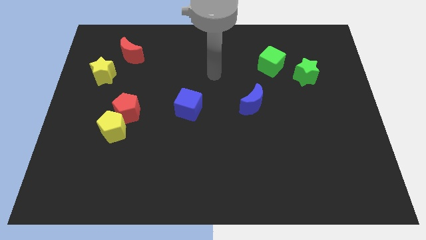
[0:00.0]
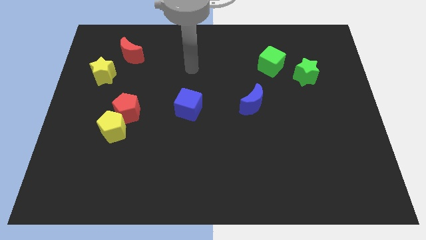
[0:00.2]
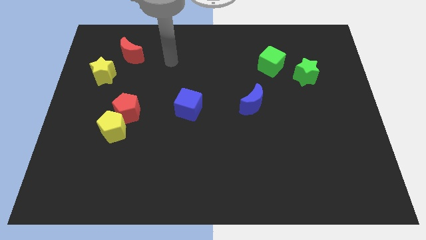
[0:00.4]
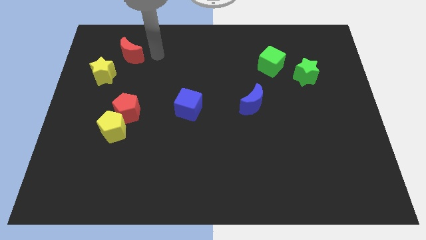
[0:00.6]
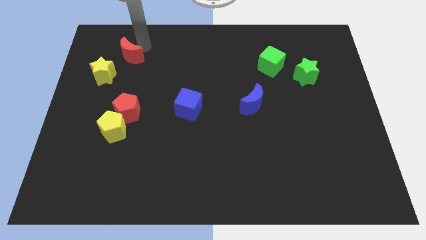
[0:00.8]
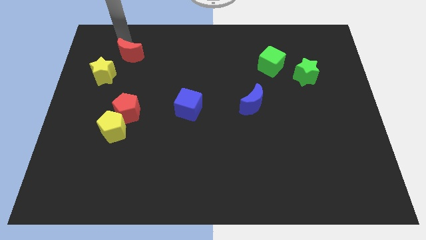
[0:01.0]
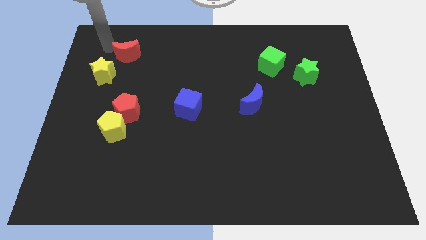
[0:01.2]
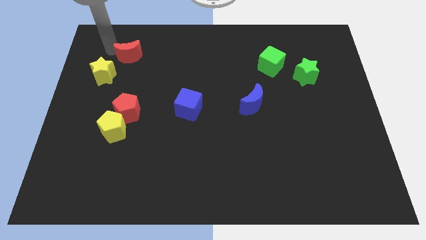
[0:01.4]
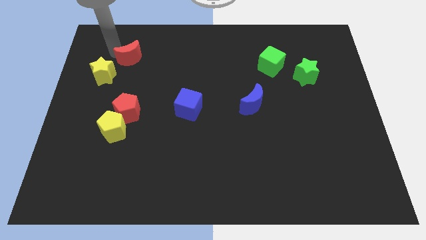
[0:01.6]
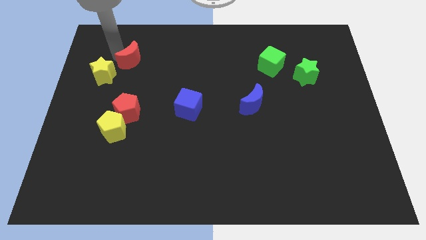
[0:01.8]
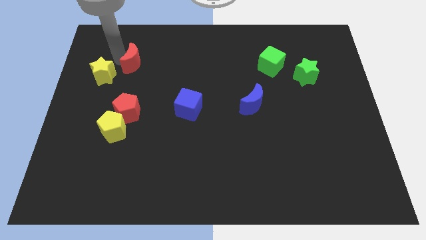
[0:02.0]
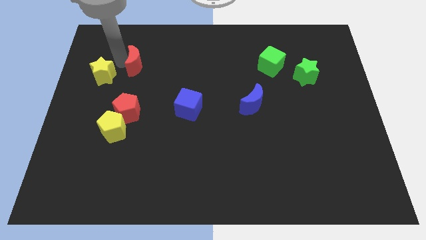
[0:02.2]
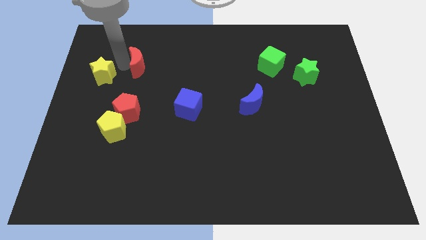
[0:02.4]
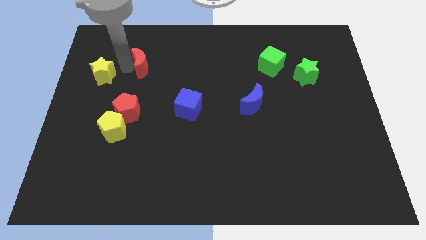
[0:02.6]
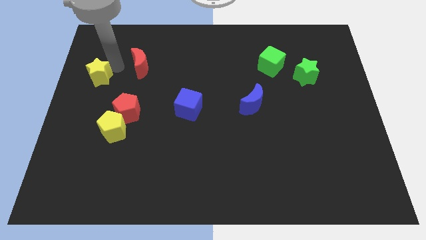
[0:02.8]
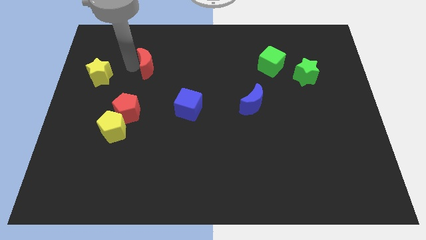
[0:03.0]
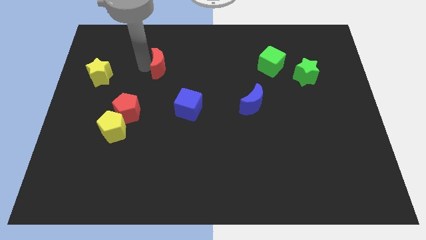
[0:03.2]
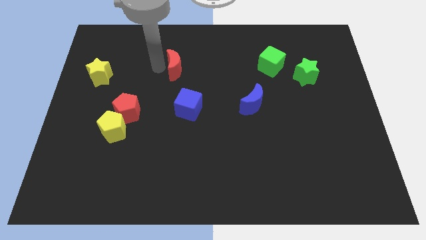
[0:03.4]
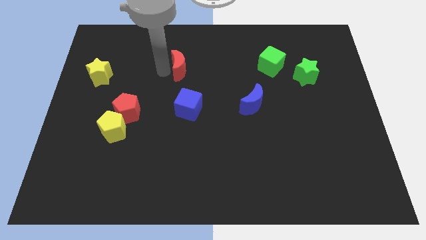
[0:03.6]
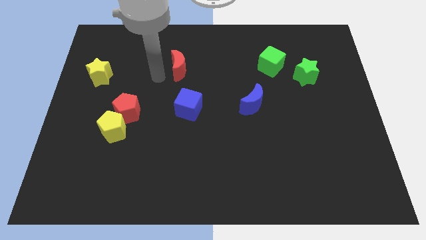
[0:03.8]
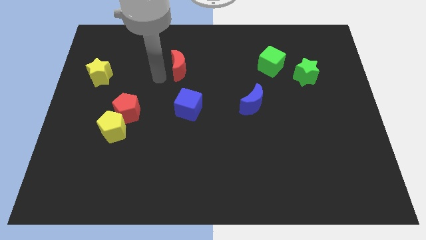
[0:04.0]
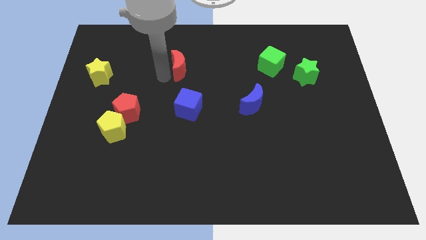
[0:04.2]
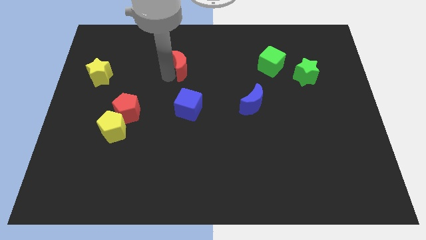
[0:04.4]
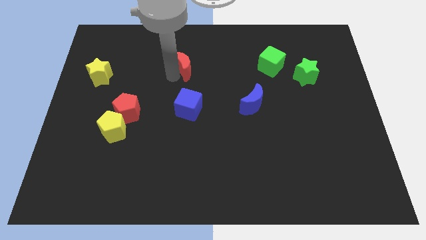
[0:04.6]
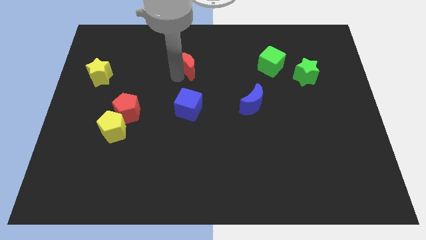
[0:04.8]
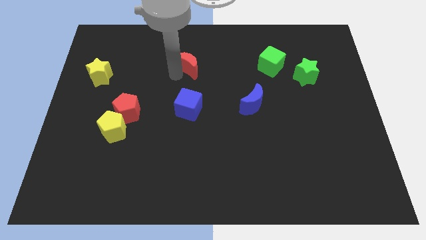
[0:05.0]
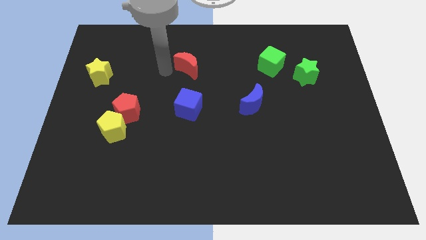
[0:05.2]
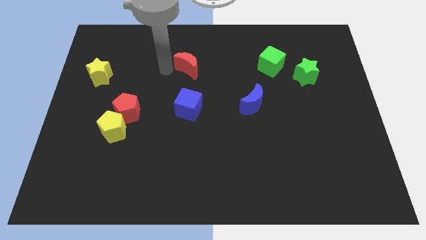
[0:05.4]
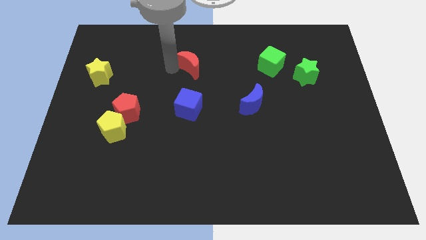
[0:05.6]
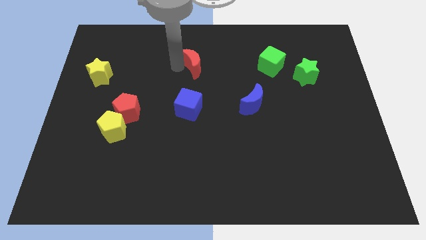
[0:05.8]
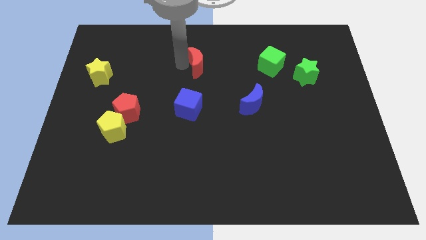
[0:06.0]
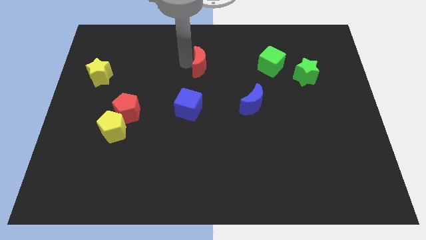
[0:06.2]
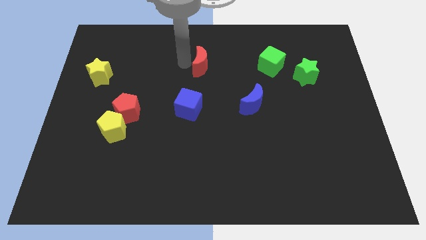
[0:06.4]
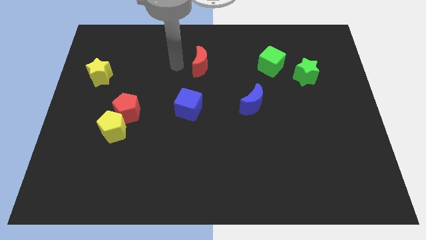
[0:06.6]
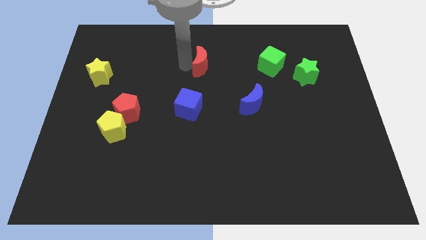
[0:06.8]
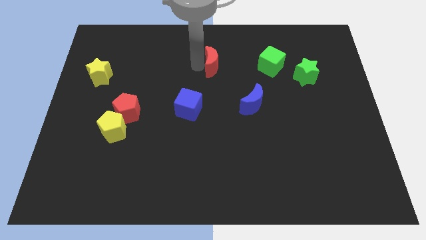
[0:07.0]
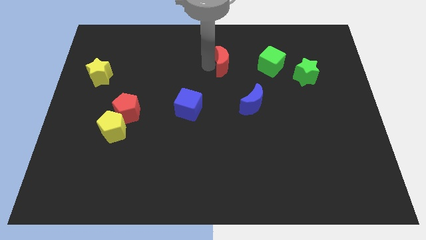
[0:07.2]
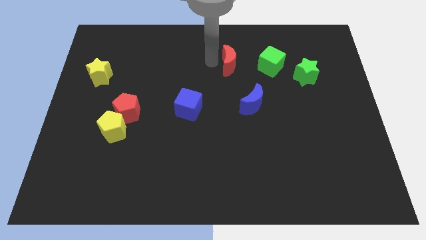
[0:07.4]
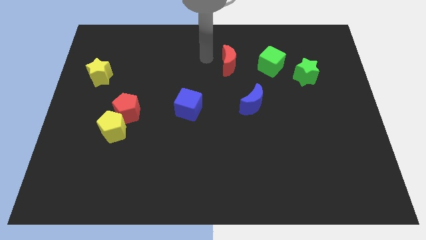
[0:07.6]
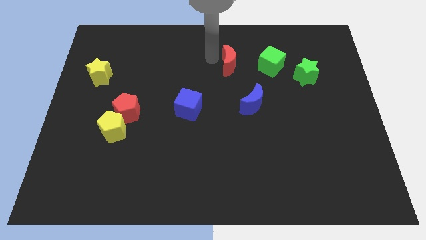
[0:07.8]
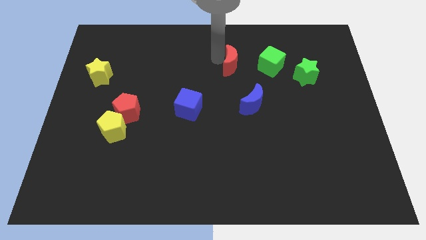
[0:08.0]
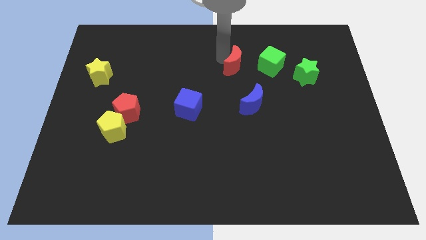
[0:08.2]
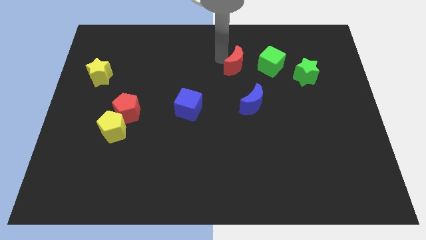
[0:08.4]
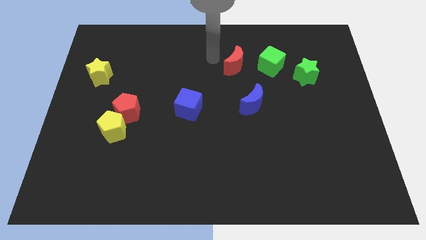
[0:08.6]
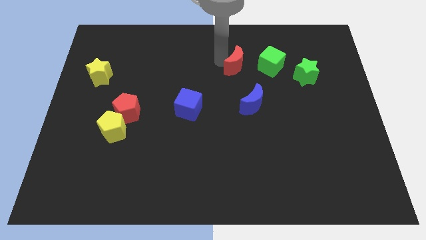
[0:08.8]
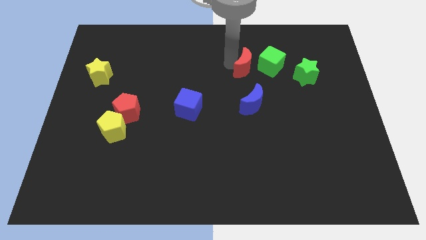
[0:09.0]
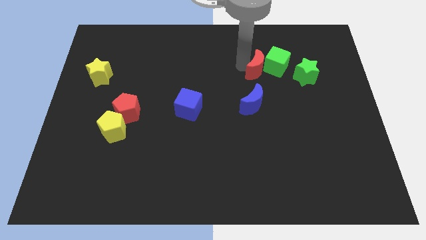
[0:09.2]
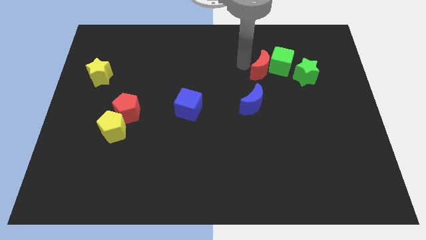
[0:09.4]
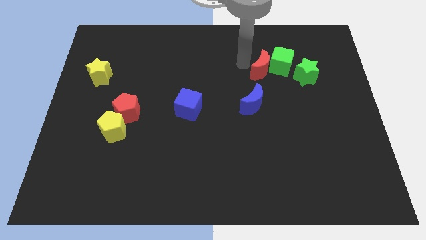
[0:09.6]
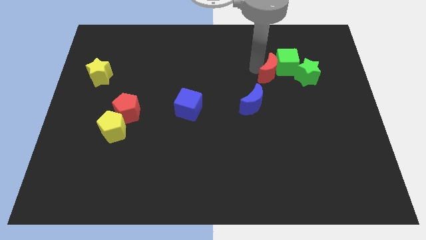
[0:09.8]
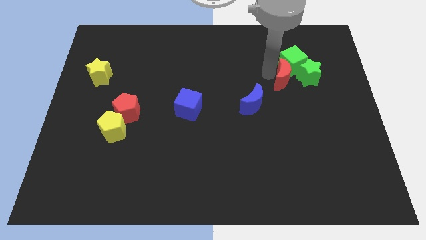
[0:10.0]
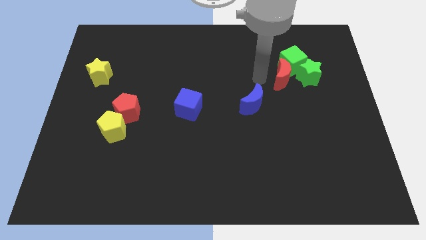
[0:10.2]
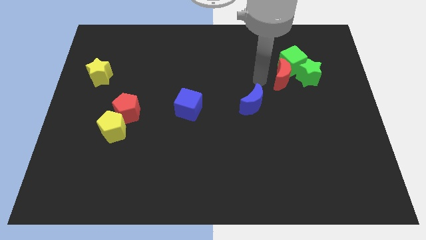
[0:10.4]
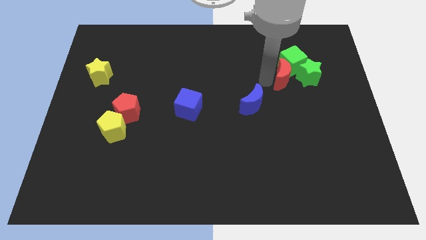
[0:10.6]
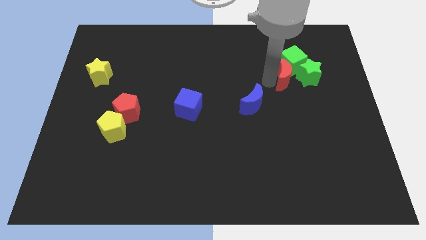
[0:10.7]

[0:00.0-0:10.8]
push the red moon to the green star

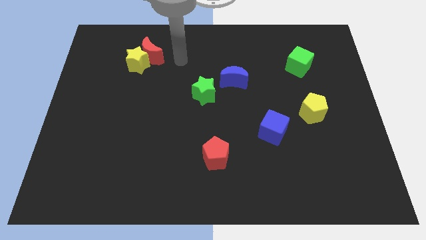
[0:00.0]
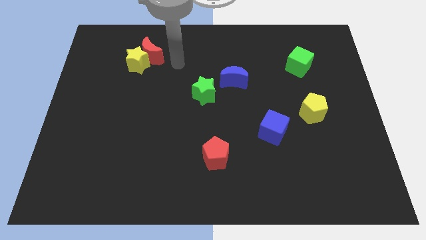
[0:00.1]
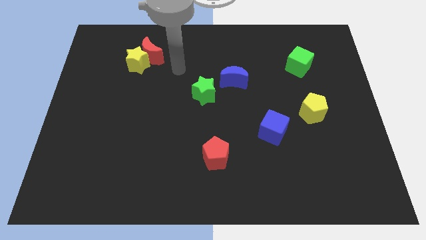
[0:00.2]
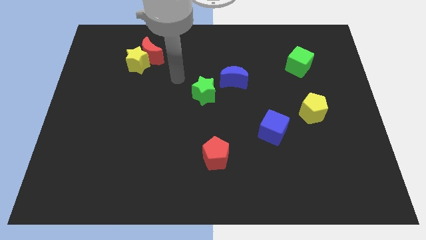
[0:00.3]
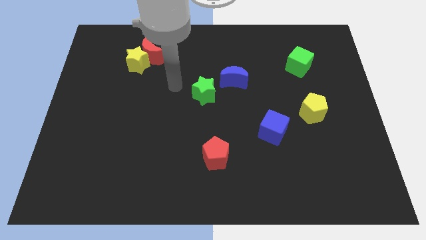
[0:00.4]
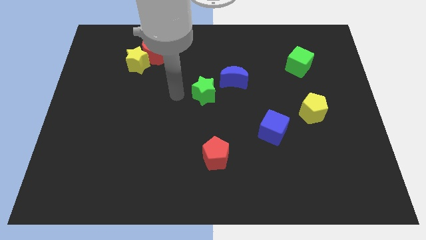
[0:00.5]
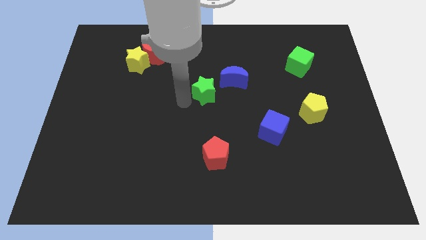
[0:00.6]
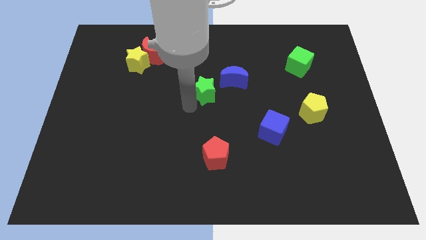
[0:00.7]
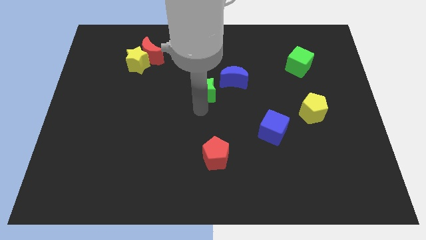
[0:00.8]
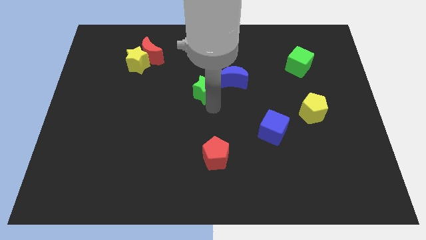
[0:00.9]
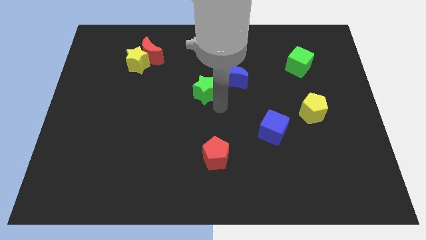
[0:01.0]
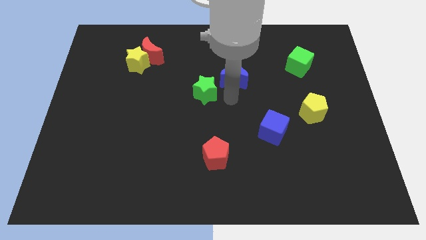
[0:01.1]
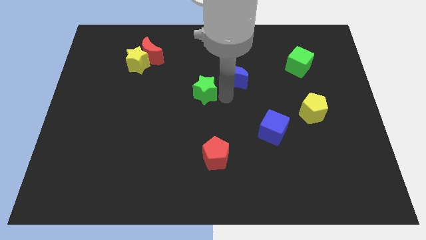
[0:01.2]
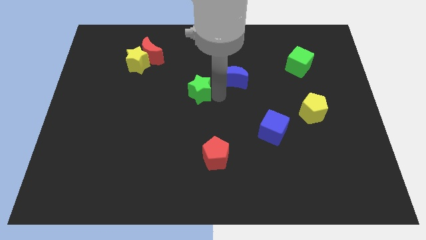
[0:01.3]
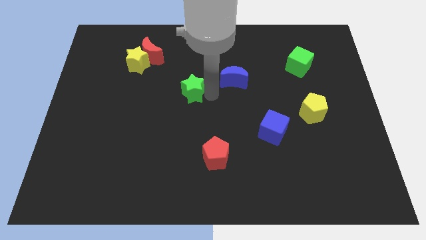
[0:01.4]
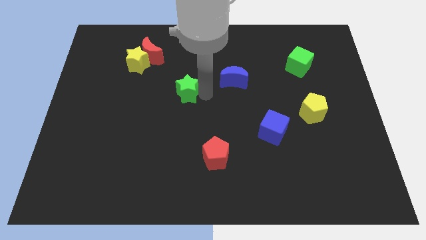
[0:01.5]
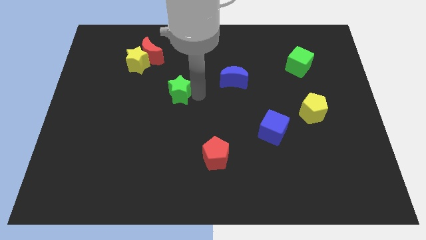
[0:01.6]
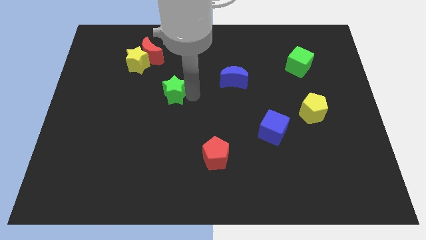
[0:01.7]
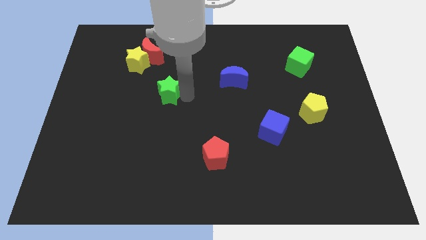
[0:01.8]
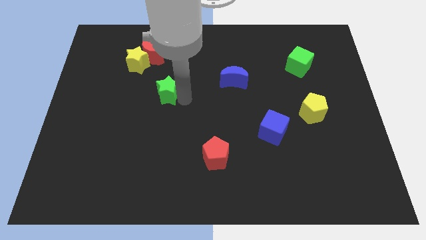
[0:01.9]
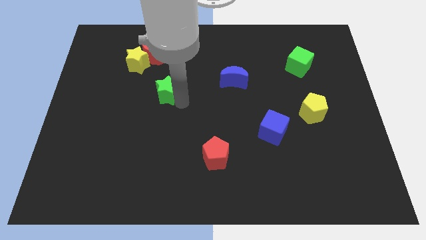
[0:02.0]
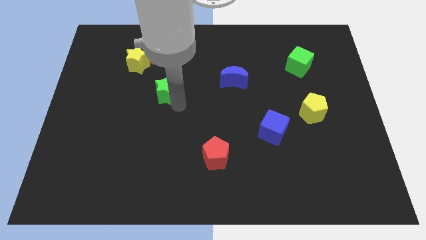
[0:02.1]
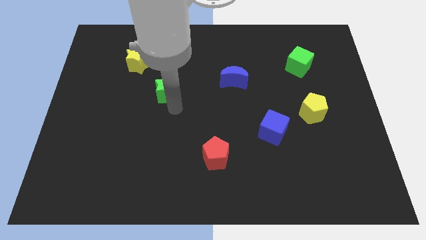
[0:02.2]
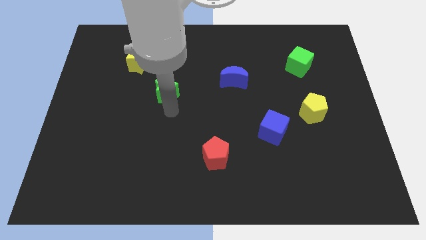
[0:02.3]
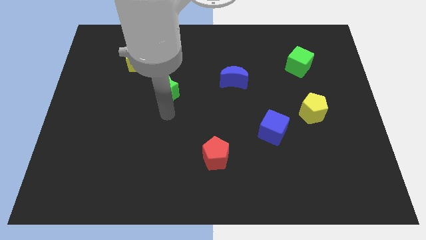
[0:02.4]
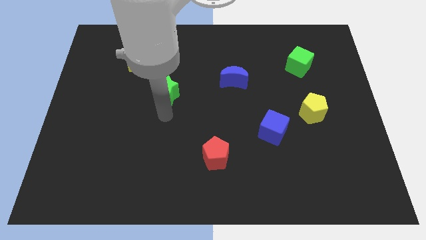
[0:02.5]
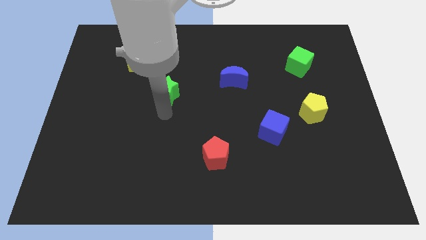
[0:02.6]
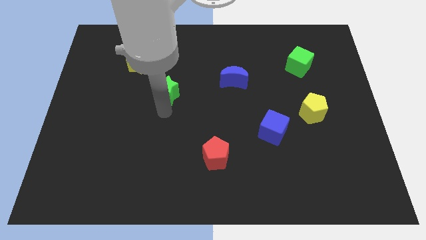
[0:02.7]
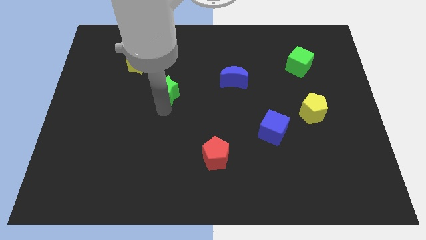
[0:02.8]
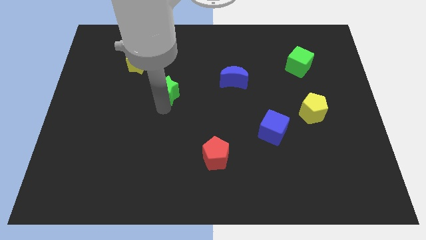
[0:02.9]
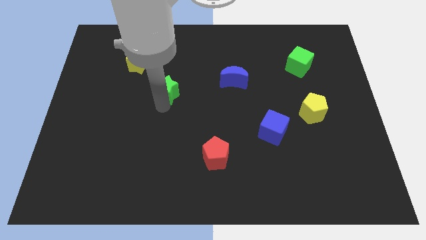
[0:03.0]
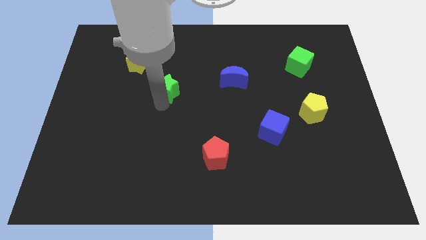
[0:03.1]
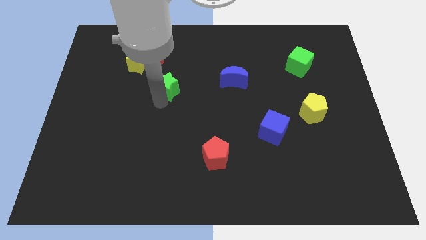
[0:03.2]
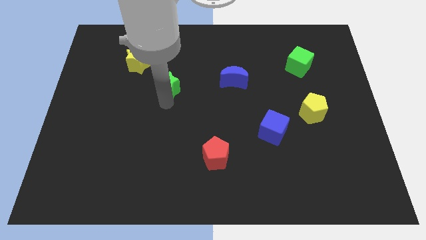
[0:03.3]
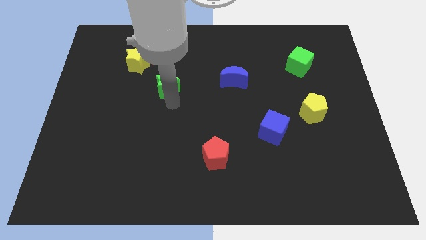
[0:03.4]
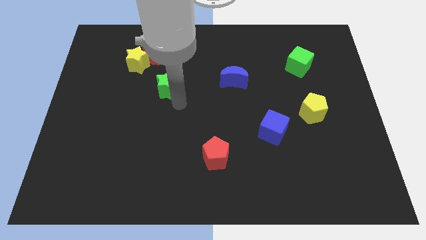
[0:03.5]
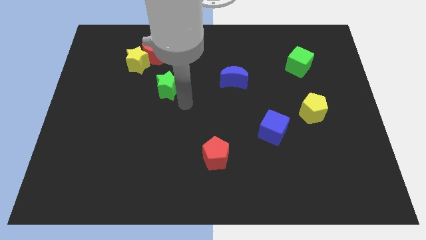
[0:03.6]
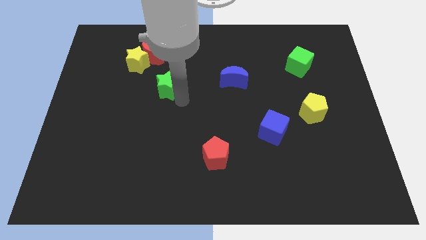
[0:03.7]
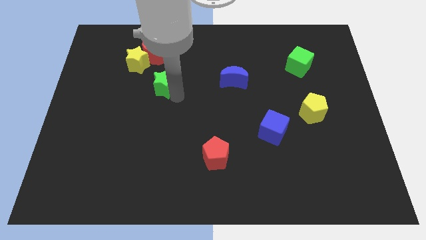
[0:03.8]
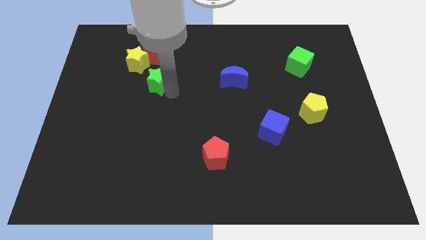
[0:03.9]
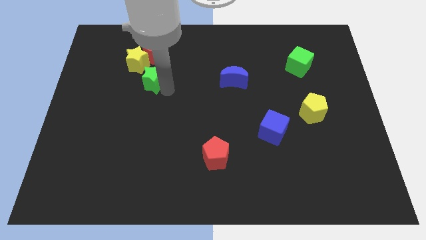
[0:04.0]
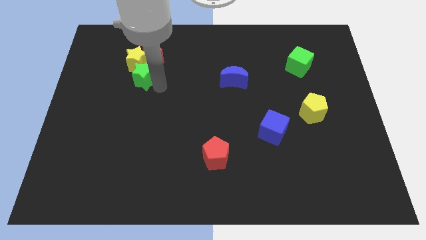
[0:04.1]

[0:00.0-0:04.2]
put the green star towards the yellow star
